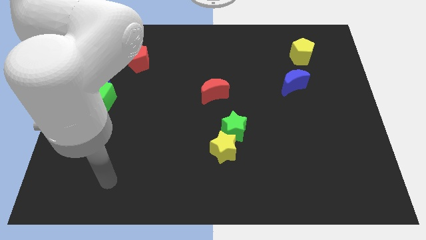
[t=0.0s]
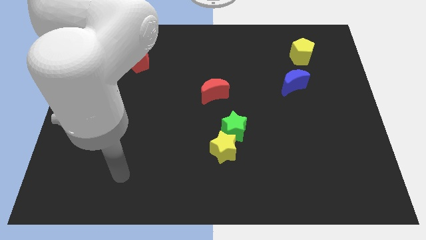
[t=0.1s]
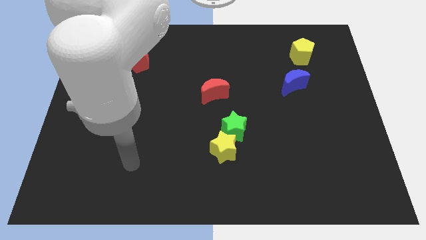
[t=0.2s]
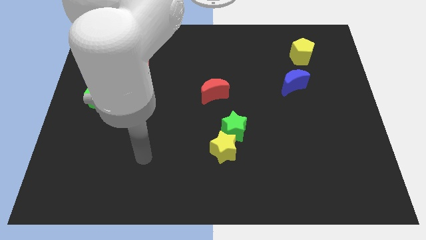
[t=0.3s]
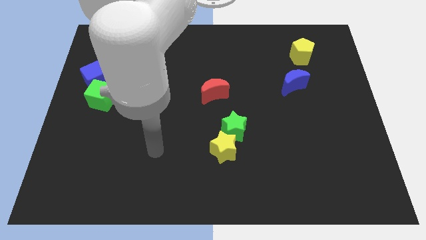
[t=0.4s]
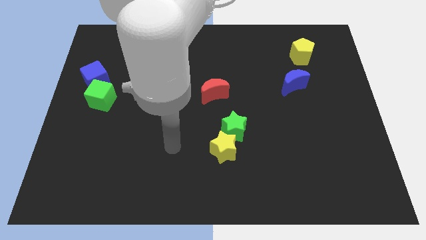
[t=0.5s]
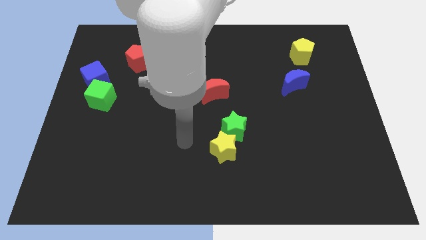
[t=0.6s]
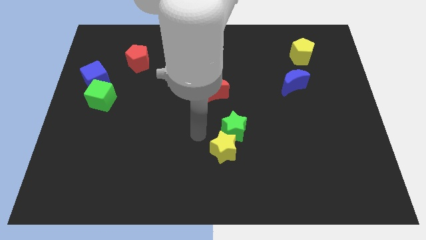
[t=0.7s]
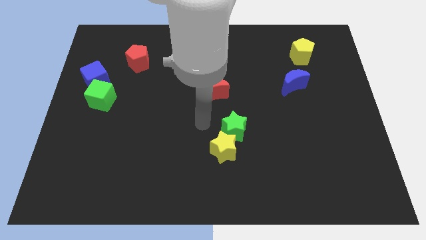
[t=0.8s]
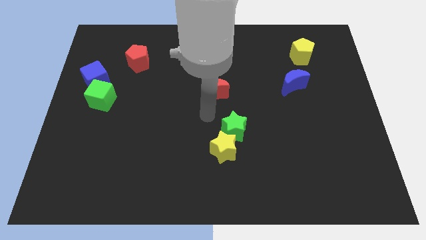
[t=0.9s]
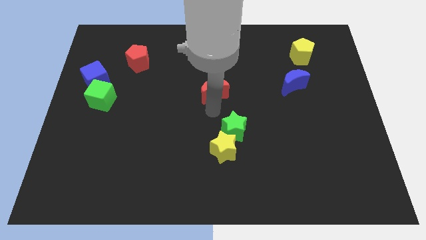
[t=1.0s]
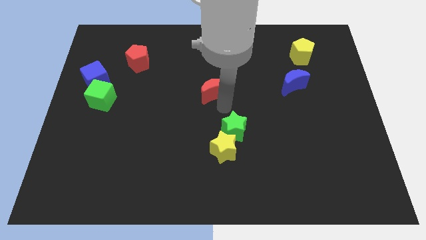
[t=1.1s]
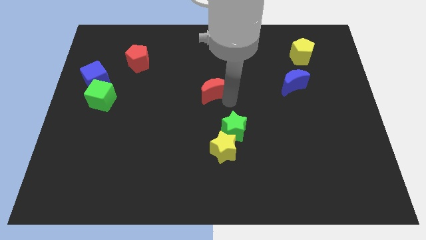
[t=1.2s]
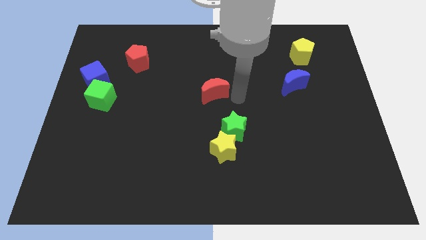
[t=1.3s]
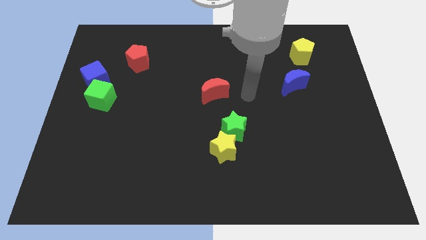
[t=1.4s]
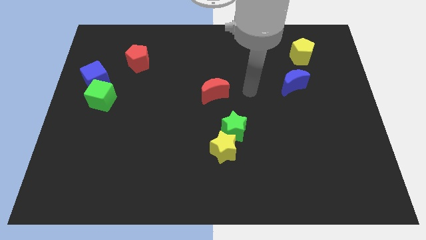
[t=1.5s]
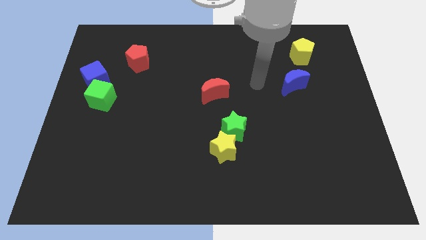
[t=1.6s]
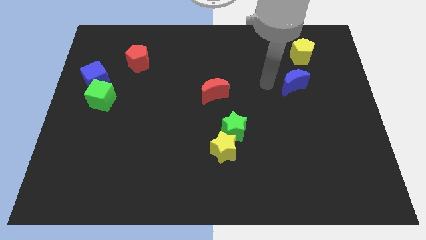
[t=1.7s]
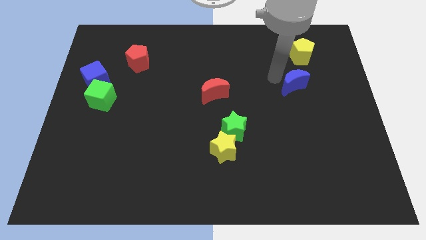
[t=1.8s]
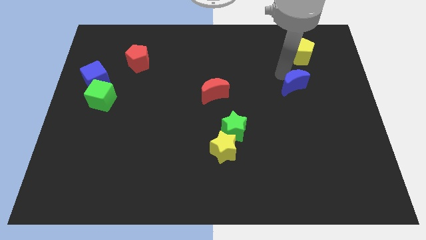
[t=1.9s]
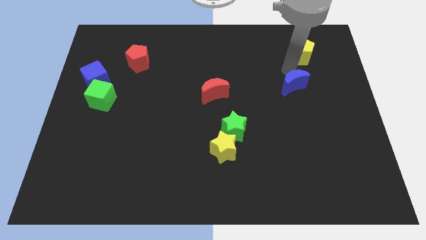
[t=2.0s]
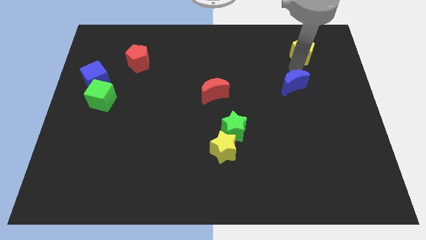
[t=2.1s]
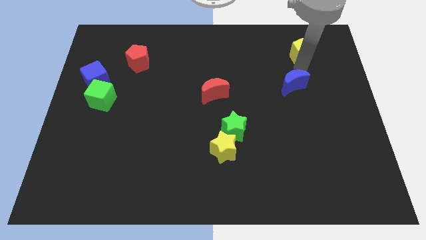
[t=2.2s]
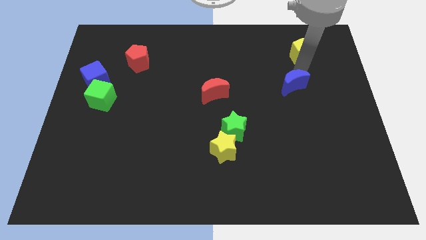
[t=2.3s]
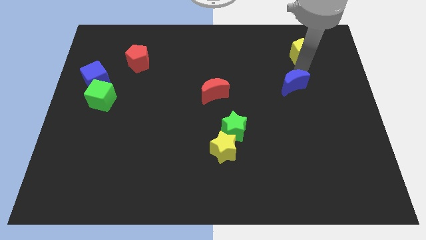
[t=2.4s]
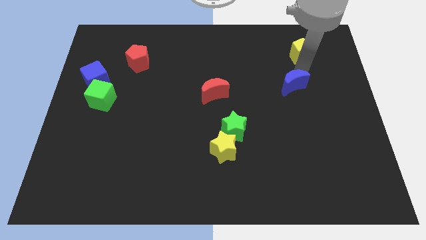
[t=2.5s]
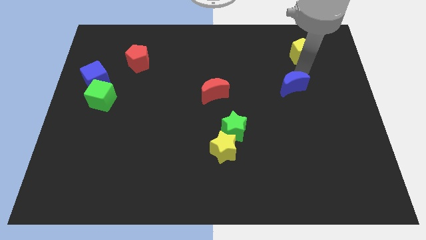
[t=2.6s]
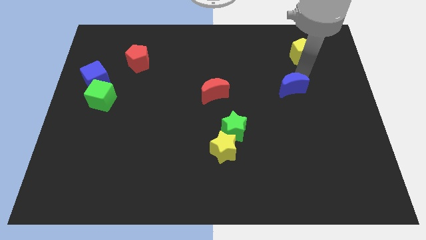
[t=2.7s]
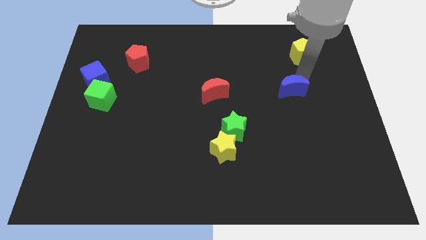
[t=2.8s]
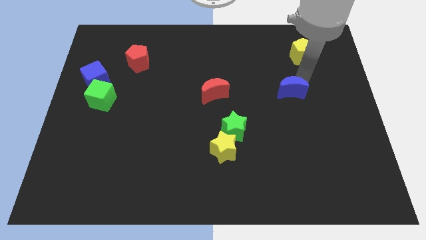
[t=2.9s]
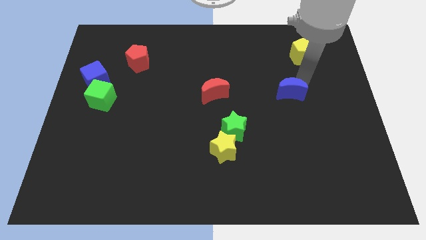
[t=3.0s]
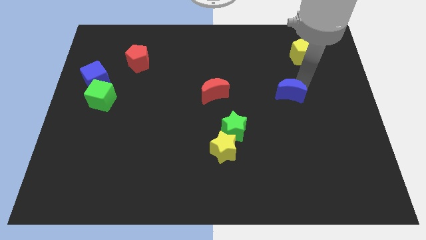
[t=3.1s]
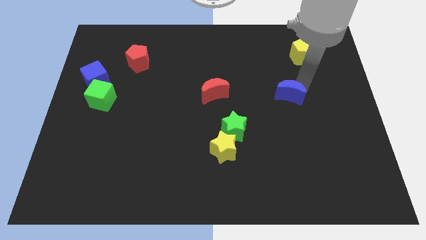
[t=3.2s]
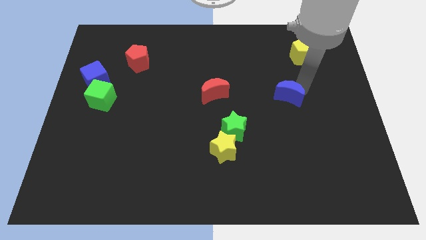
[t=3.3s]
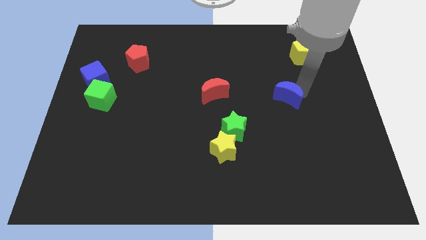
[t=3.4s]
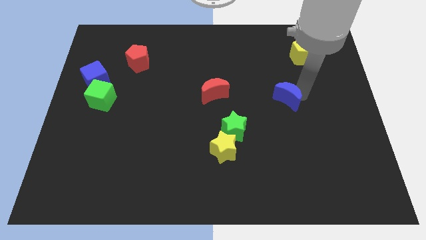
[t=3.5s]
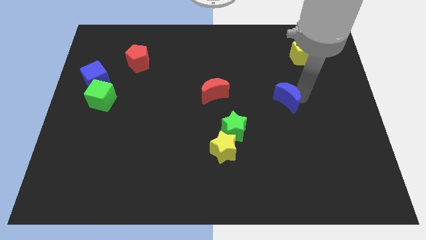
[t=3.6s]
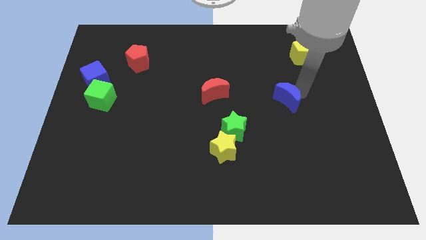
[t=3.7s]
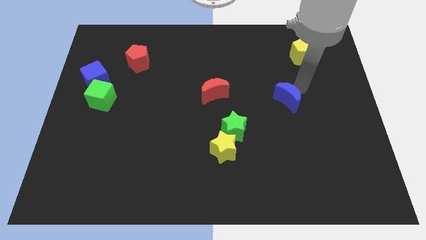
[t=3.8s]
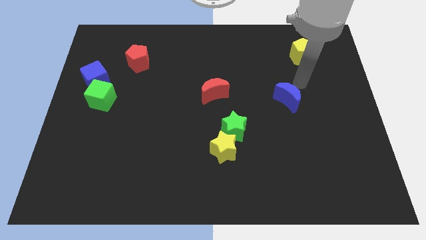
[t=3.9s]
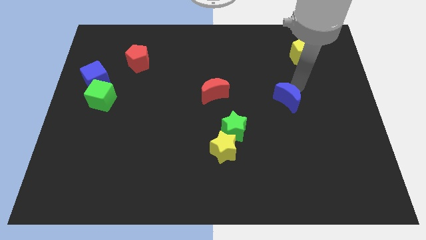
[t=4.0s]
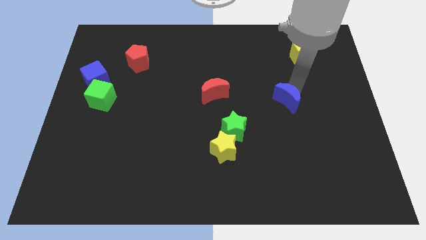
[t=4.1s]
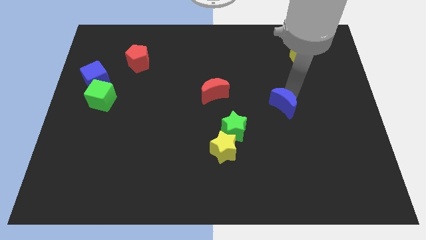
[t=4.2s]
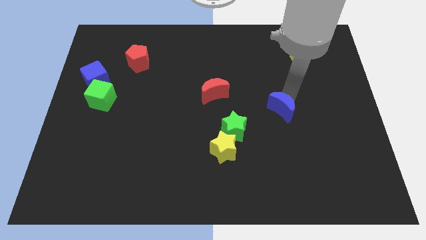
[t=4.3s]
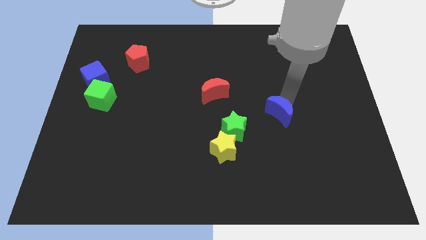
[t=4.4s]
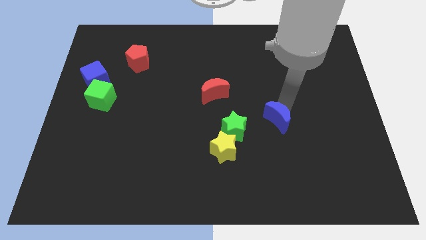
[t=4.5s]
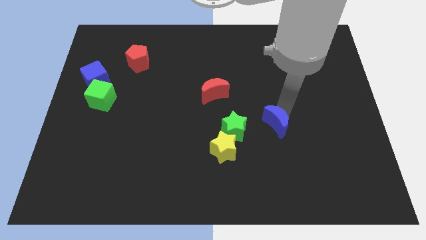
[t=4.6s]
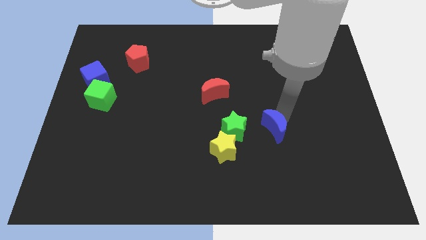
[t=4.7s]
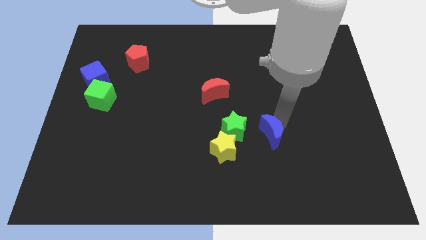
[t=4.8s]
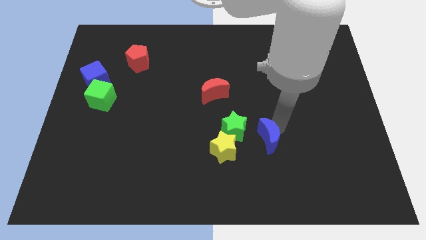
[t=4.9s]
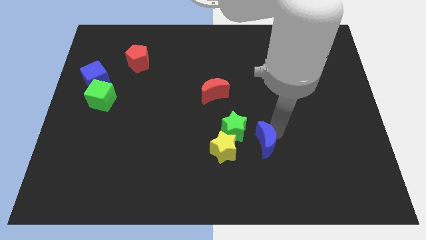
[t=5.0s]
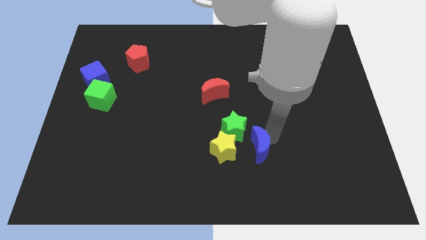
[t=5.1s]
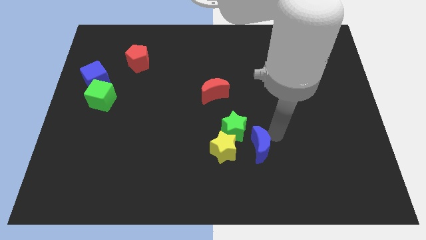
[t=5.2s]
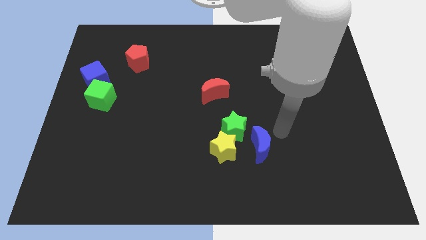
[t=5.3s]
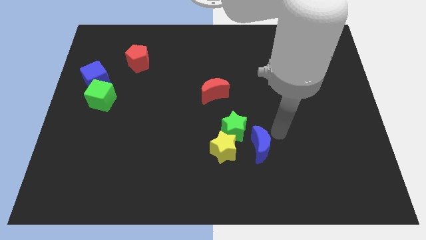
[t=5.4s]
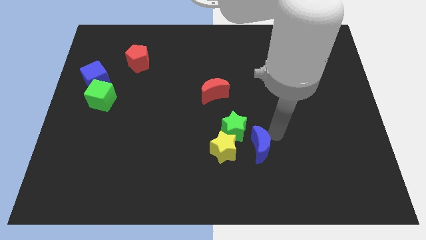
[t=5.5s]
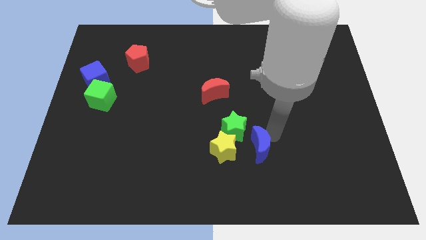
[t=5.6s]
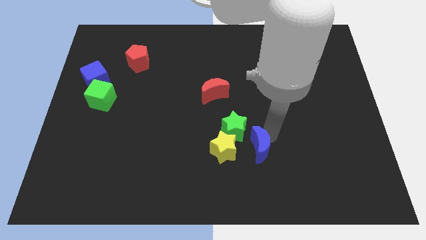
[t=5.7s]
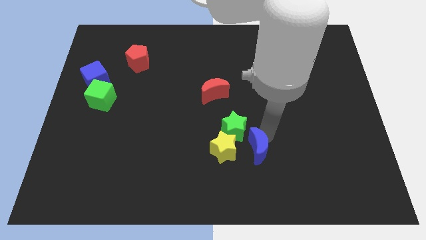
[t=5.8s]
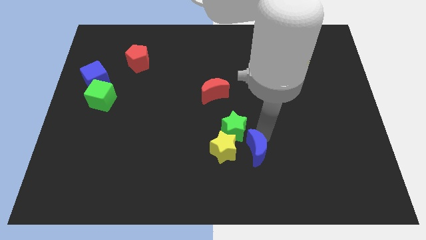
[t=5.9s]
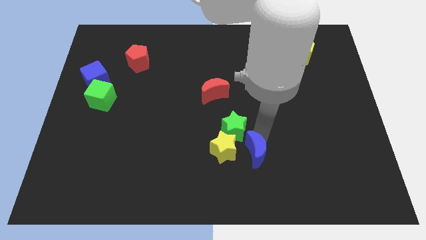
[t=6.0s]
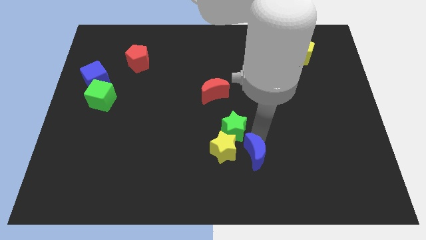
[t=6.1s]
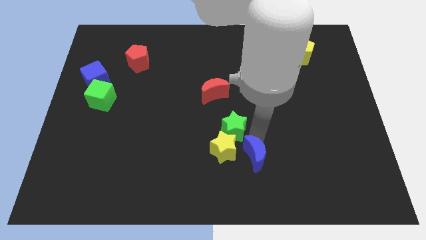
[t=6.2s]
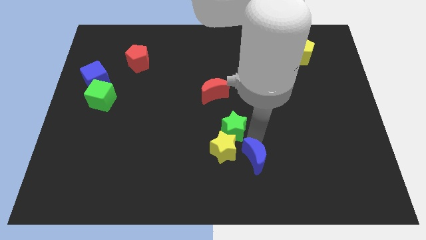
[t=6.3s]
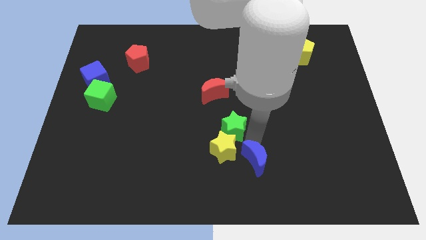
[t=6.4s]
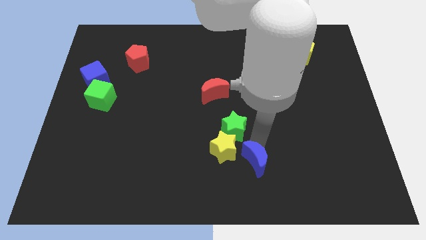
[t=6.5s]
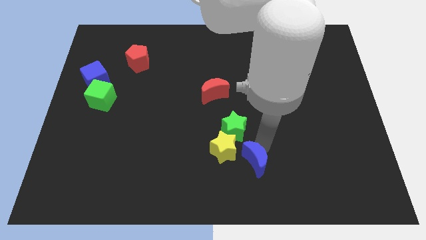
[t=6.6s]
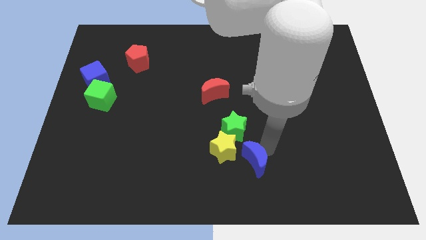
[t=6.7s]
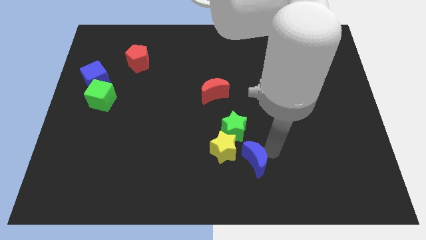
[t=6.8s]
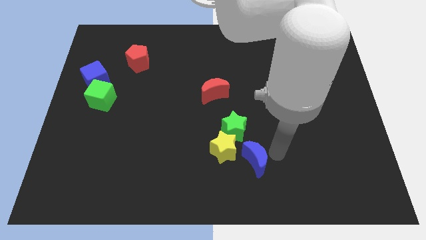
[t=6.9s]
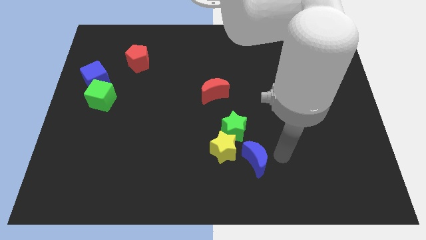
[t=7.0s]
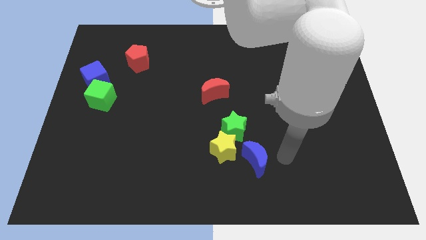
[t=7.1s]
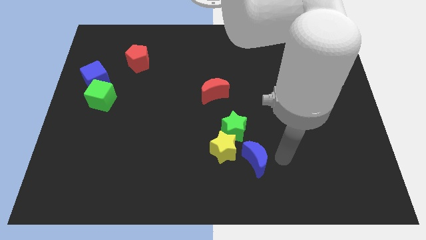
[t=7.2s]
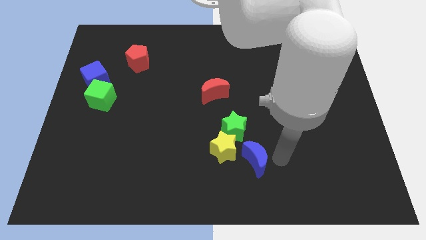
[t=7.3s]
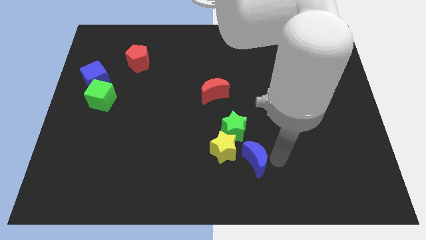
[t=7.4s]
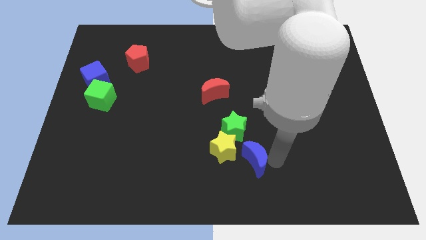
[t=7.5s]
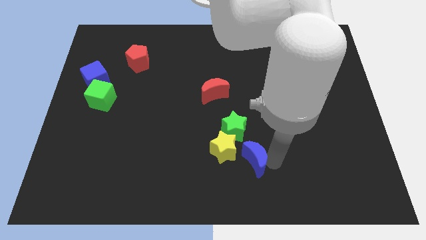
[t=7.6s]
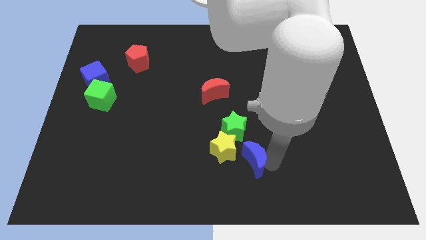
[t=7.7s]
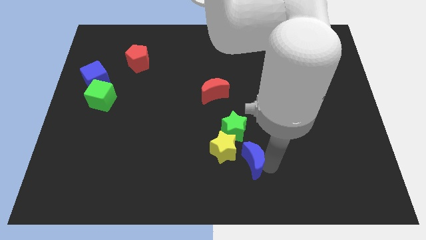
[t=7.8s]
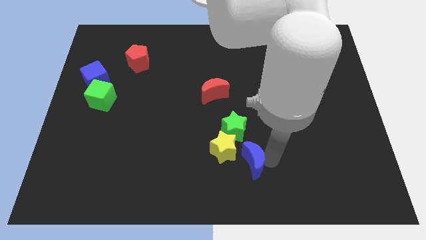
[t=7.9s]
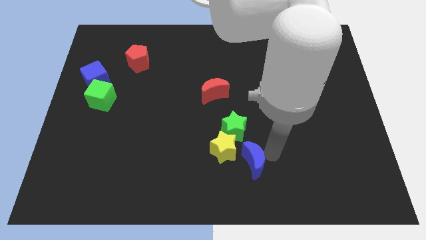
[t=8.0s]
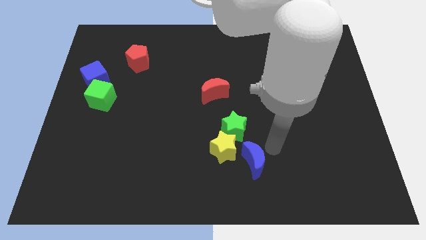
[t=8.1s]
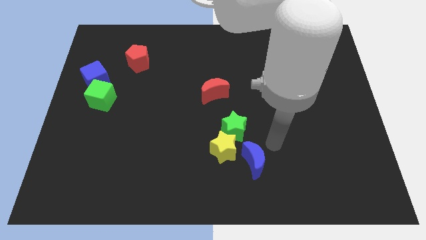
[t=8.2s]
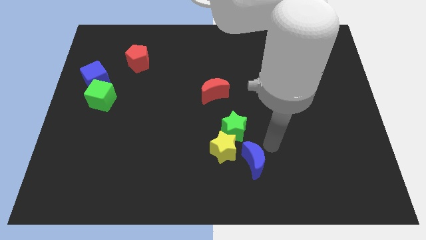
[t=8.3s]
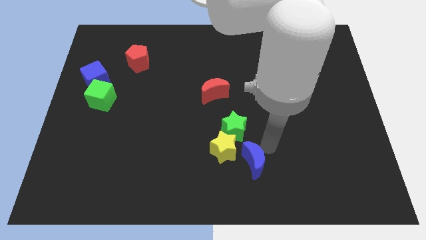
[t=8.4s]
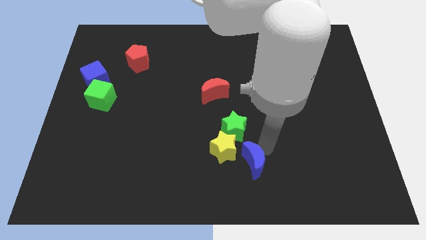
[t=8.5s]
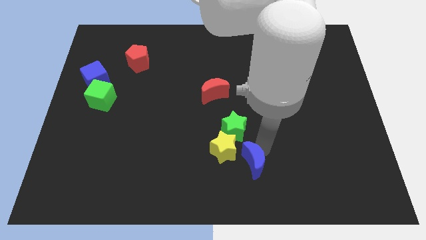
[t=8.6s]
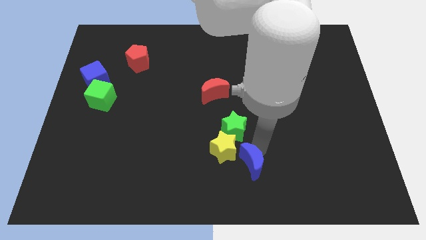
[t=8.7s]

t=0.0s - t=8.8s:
slide the blue moon to the bottom side
